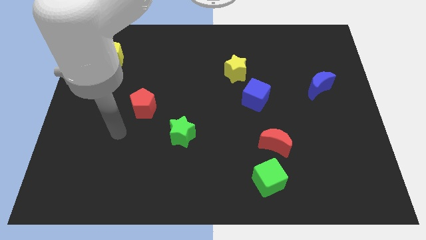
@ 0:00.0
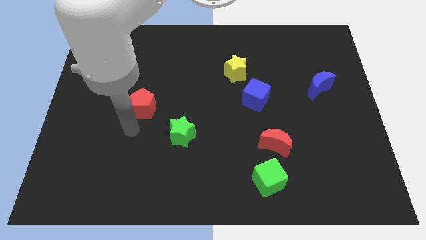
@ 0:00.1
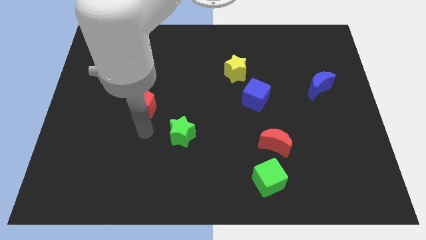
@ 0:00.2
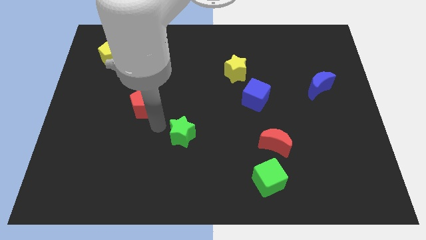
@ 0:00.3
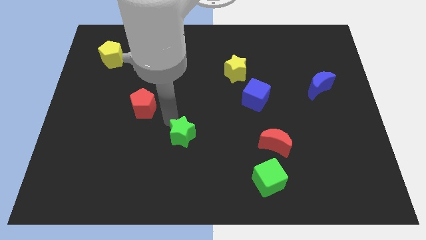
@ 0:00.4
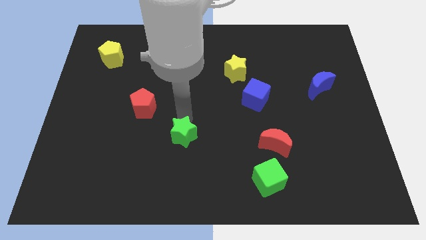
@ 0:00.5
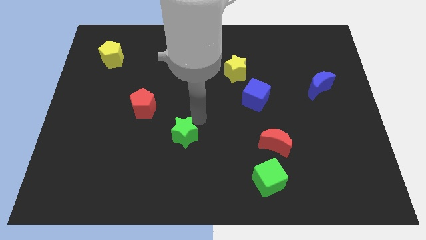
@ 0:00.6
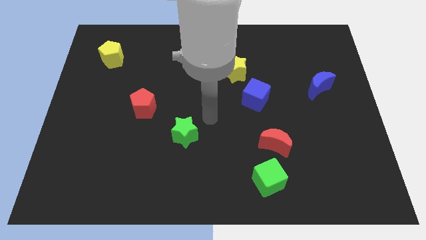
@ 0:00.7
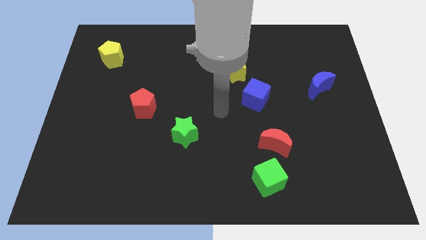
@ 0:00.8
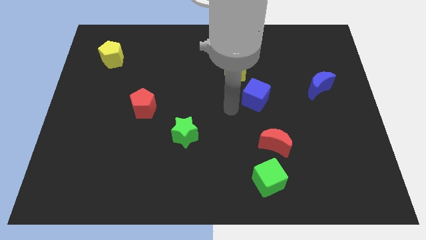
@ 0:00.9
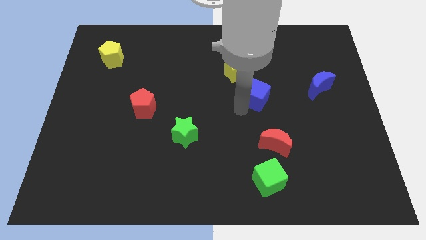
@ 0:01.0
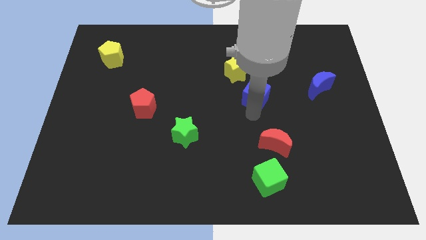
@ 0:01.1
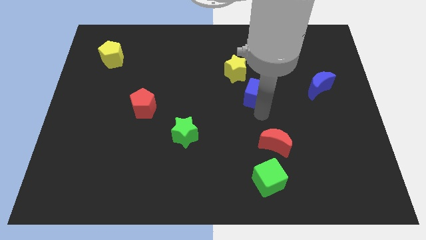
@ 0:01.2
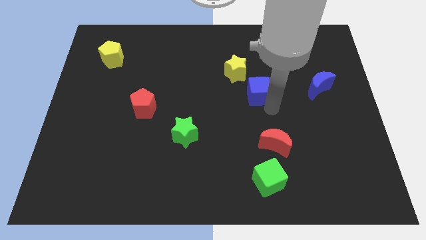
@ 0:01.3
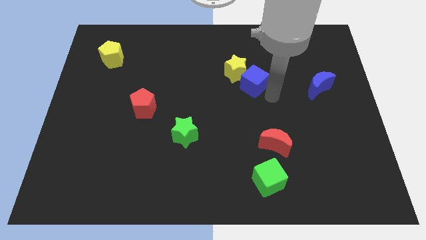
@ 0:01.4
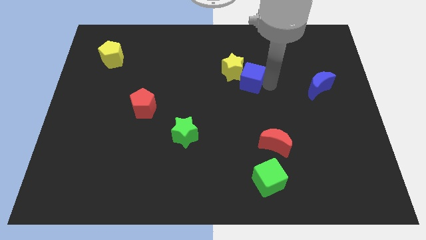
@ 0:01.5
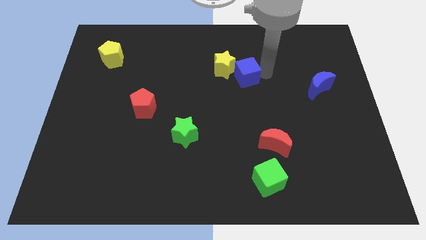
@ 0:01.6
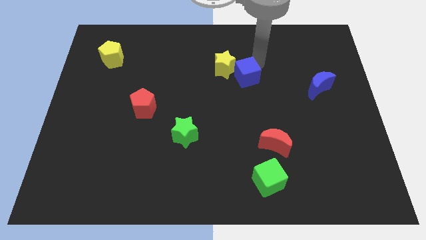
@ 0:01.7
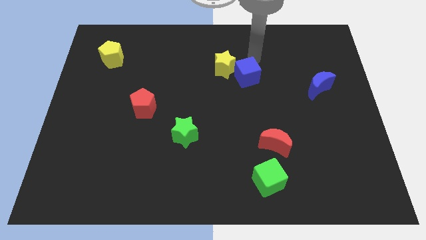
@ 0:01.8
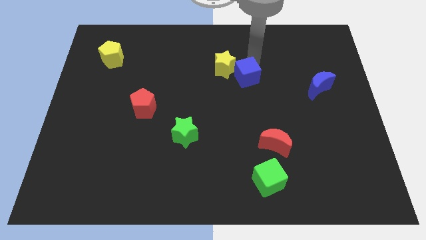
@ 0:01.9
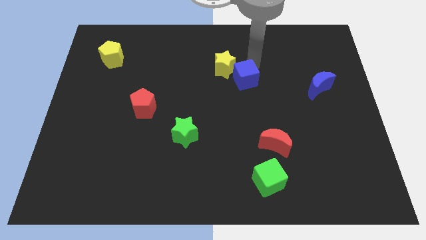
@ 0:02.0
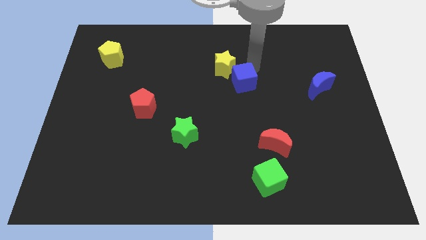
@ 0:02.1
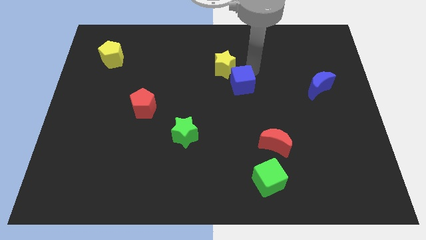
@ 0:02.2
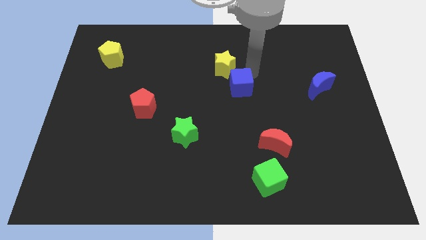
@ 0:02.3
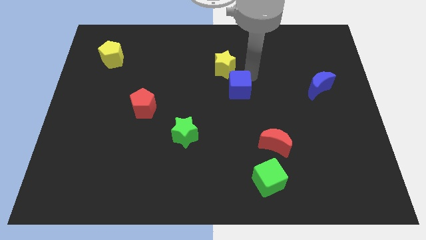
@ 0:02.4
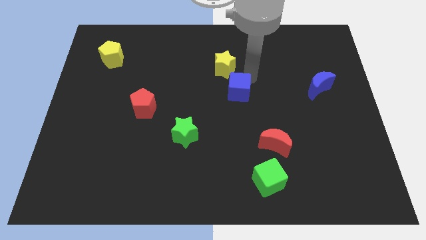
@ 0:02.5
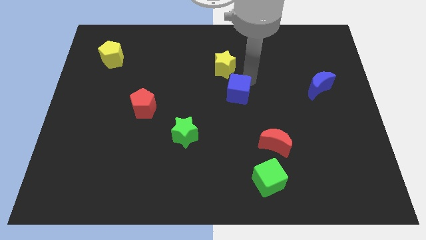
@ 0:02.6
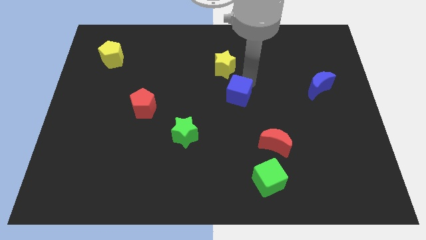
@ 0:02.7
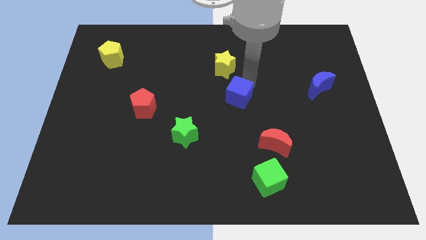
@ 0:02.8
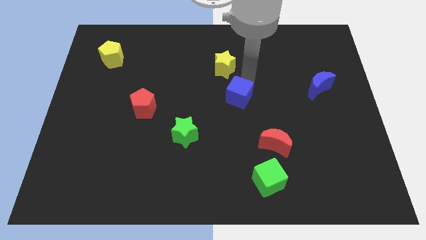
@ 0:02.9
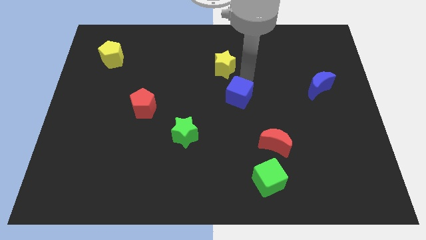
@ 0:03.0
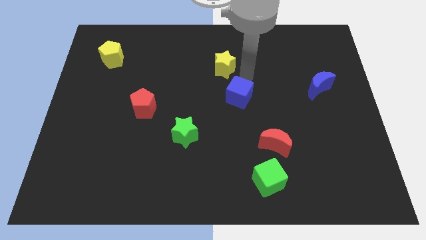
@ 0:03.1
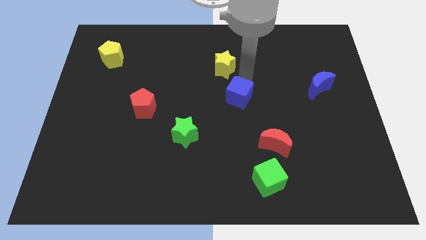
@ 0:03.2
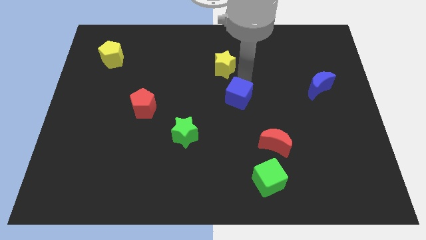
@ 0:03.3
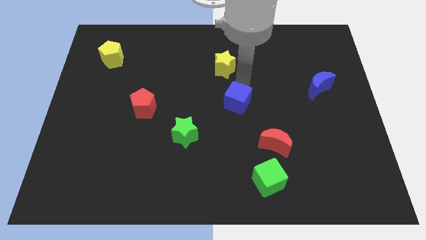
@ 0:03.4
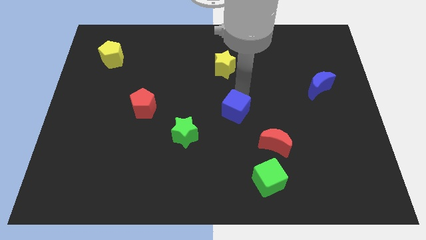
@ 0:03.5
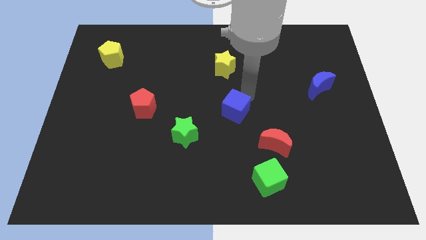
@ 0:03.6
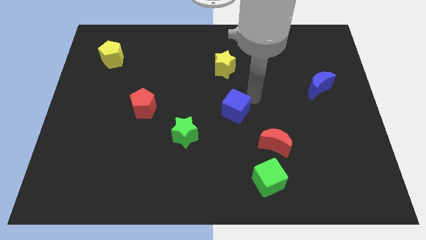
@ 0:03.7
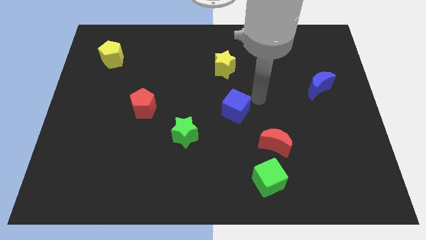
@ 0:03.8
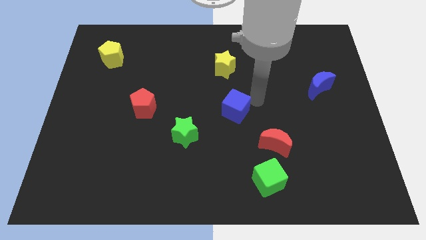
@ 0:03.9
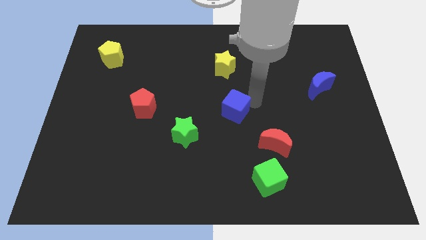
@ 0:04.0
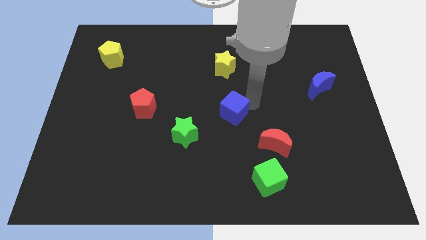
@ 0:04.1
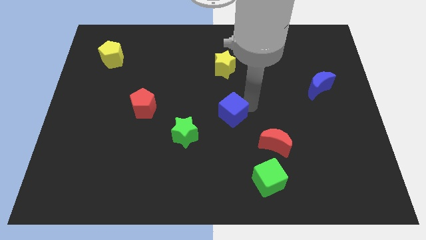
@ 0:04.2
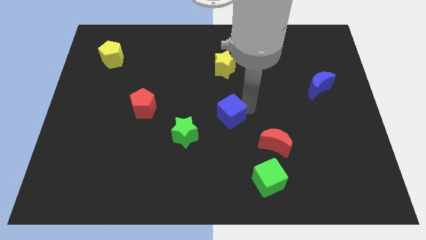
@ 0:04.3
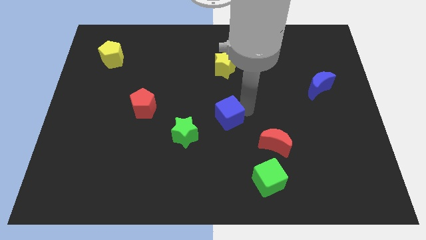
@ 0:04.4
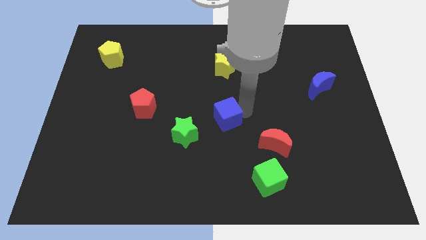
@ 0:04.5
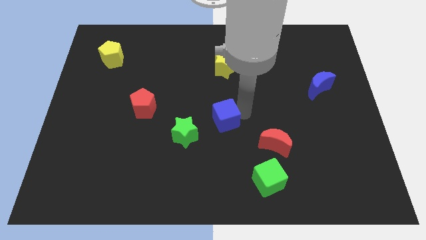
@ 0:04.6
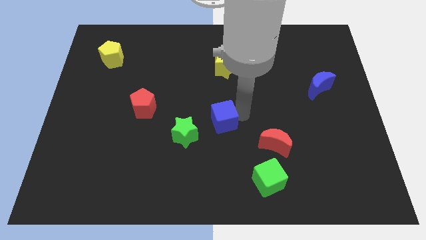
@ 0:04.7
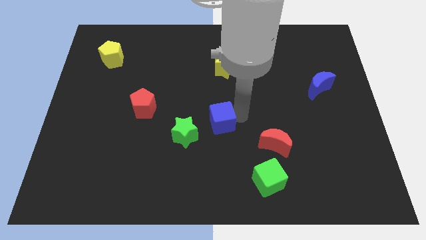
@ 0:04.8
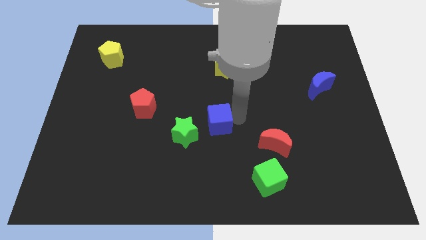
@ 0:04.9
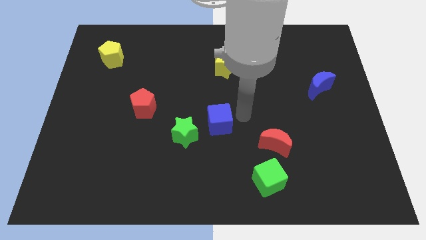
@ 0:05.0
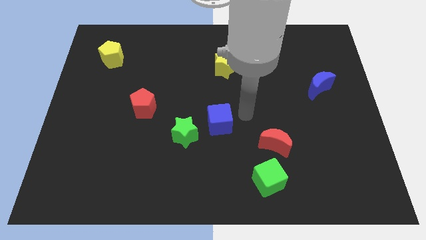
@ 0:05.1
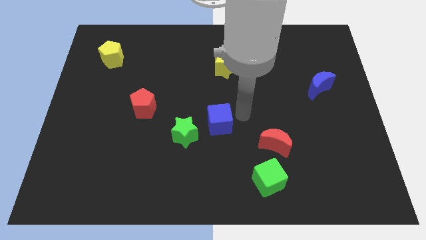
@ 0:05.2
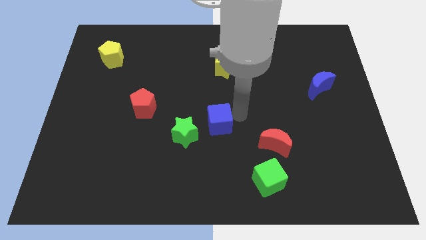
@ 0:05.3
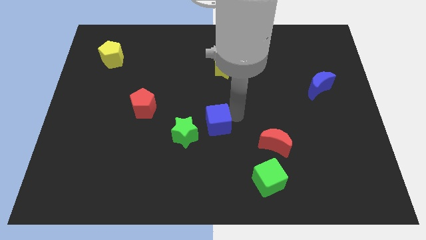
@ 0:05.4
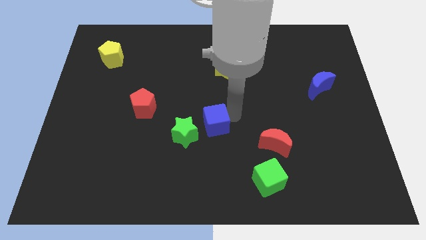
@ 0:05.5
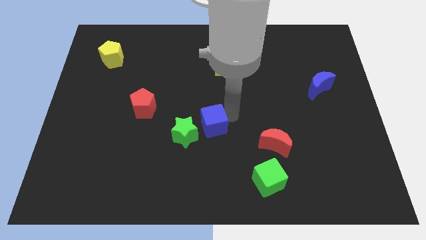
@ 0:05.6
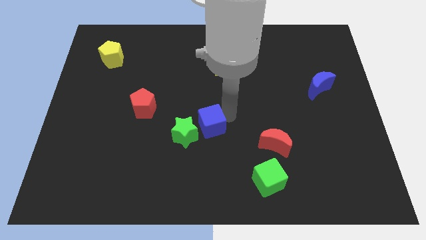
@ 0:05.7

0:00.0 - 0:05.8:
slide the blue cube next to the green star

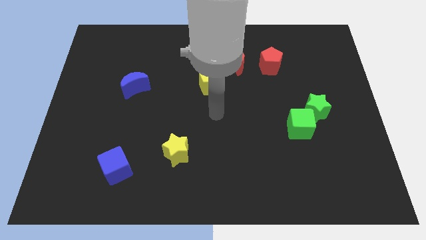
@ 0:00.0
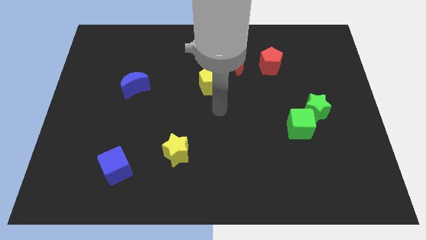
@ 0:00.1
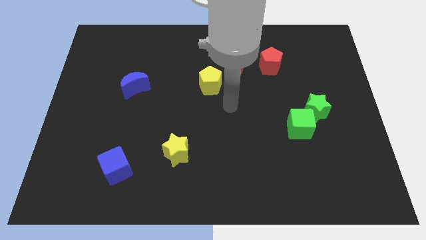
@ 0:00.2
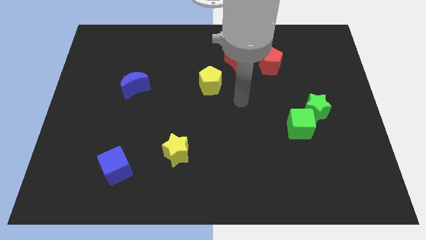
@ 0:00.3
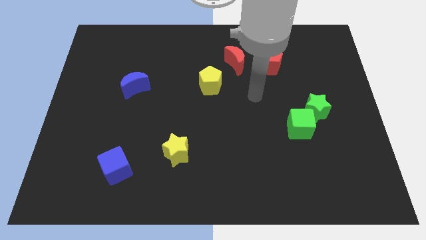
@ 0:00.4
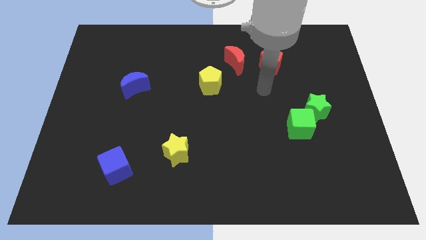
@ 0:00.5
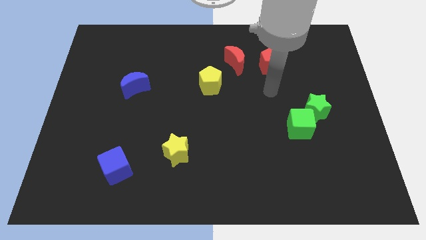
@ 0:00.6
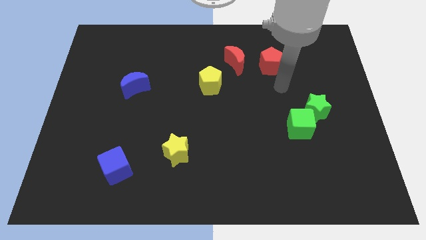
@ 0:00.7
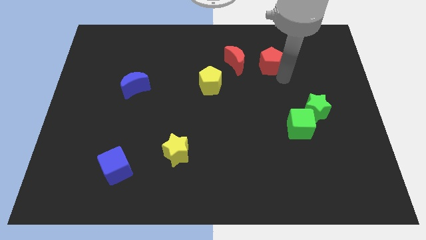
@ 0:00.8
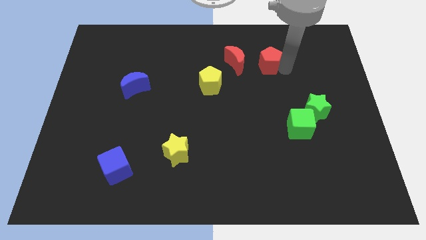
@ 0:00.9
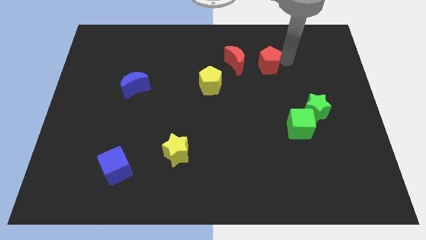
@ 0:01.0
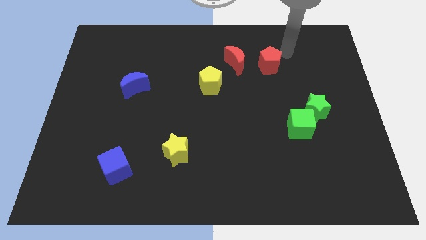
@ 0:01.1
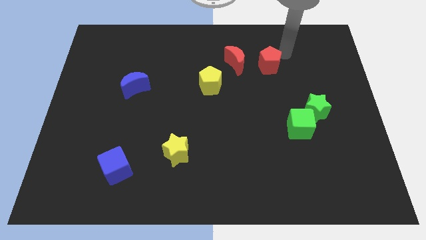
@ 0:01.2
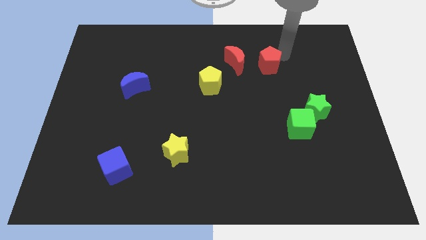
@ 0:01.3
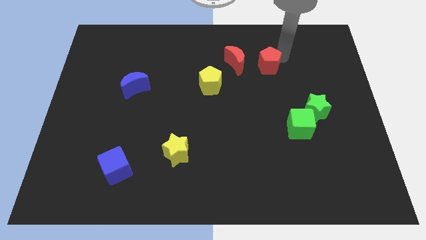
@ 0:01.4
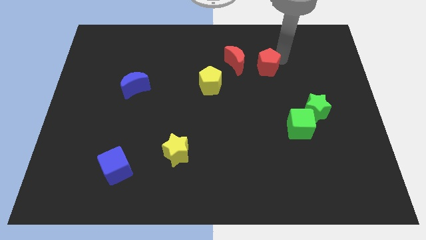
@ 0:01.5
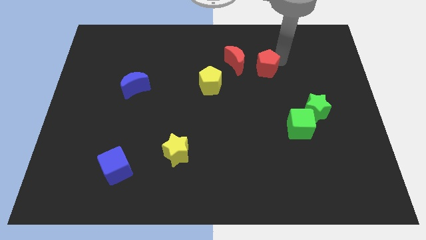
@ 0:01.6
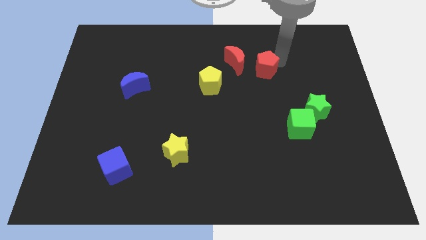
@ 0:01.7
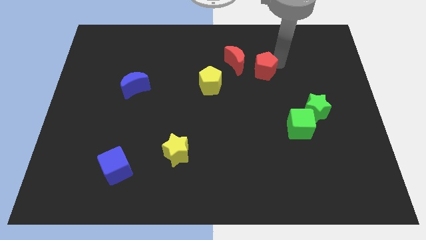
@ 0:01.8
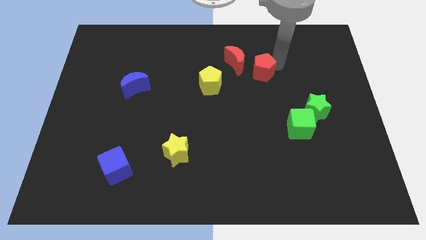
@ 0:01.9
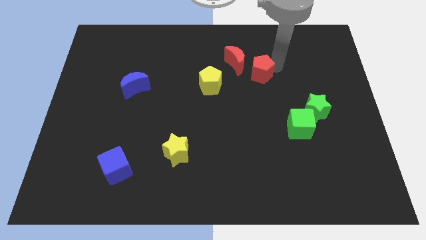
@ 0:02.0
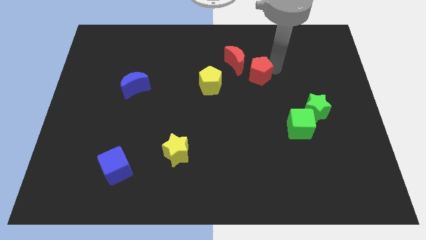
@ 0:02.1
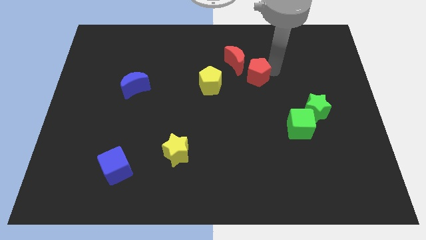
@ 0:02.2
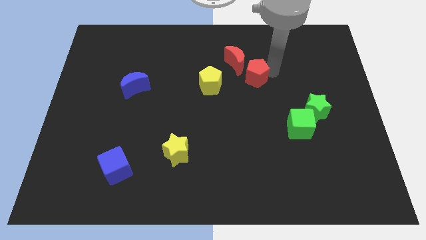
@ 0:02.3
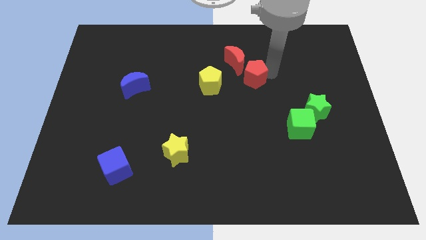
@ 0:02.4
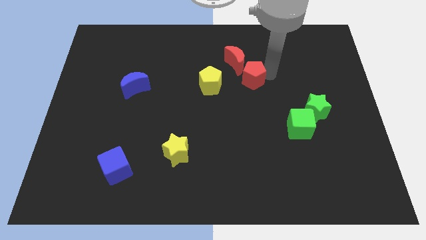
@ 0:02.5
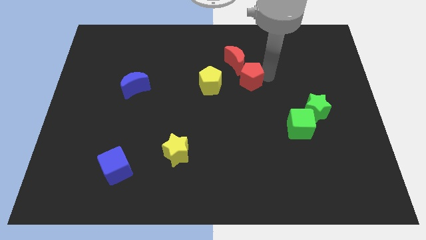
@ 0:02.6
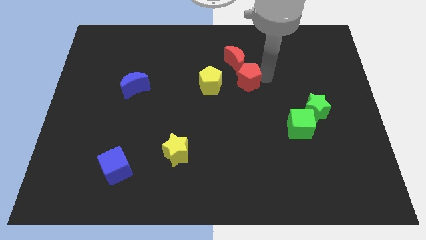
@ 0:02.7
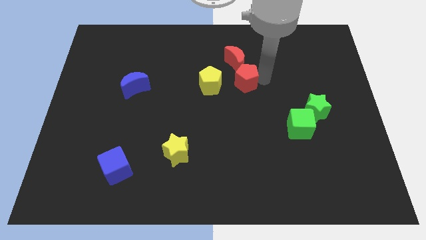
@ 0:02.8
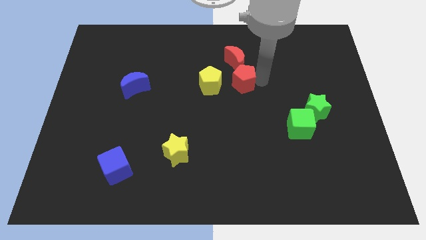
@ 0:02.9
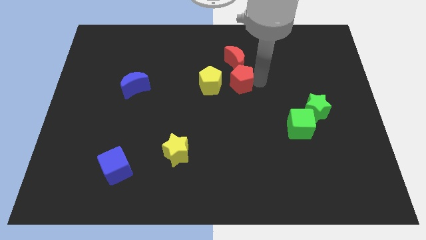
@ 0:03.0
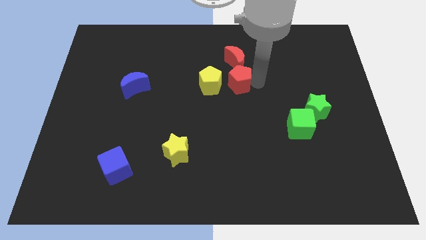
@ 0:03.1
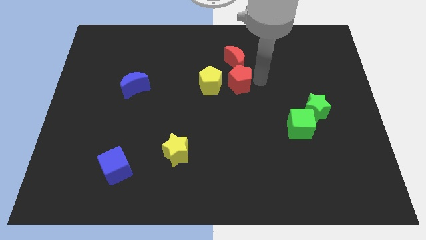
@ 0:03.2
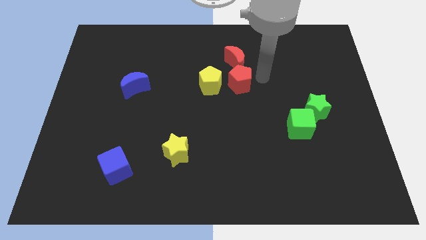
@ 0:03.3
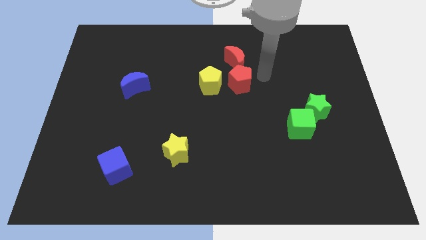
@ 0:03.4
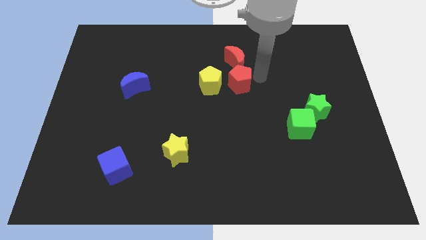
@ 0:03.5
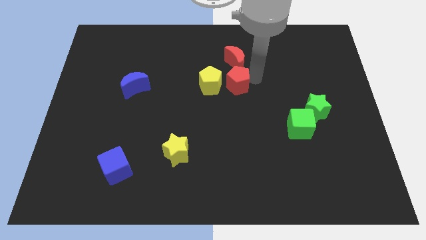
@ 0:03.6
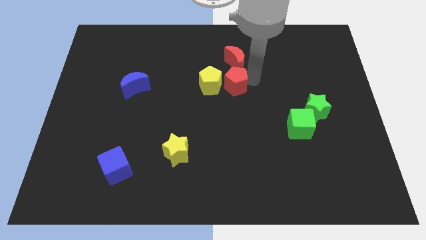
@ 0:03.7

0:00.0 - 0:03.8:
push the red pentagon next to the yellow pentagon
